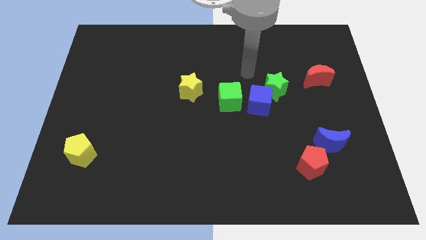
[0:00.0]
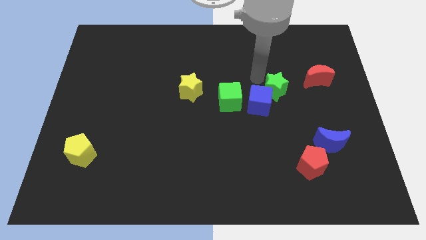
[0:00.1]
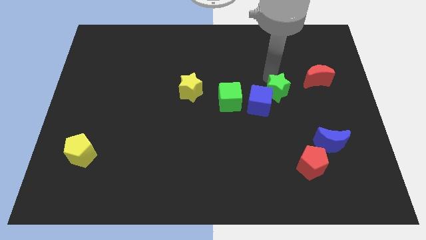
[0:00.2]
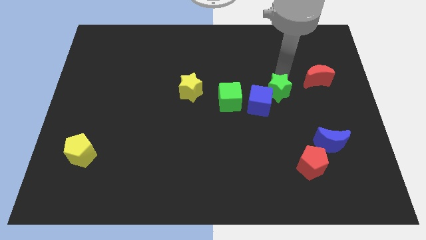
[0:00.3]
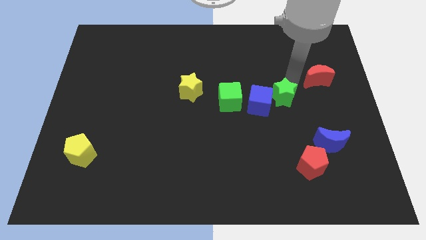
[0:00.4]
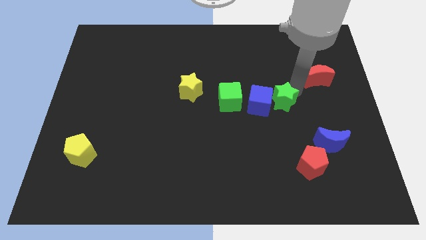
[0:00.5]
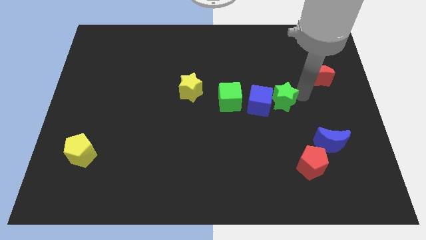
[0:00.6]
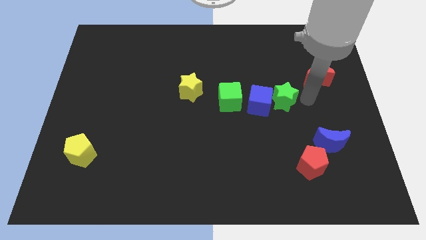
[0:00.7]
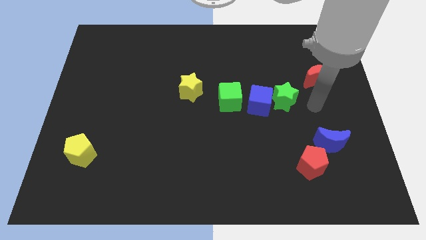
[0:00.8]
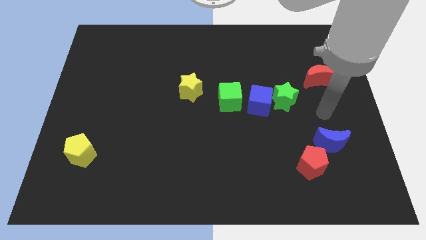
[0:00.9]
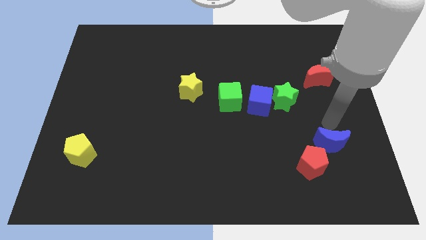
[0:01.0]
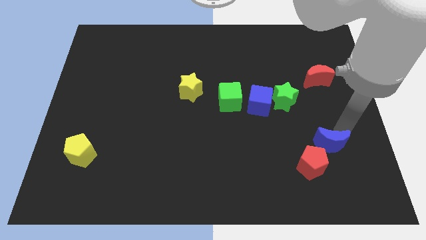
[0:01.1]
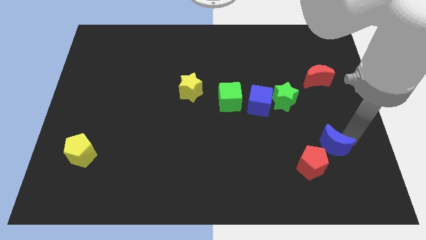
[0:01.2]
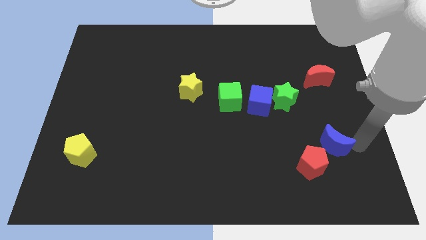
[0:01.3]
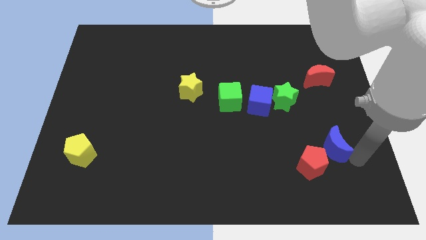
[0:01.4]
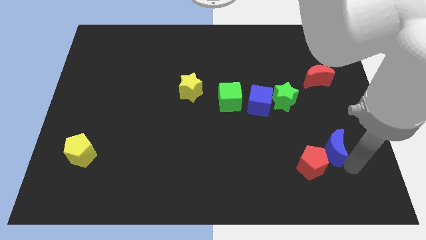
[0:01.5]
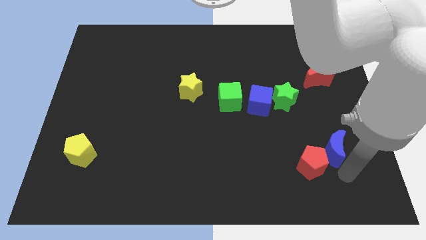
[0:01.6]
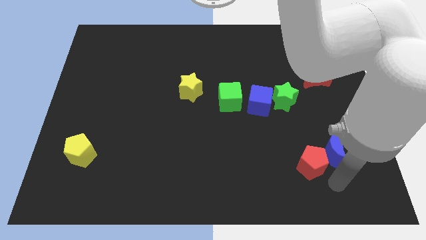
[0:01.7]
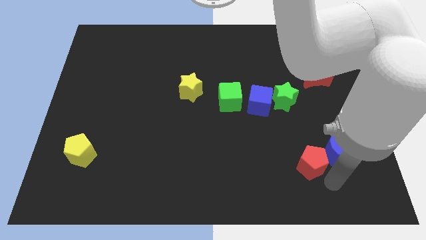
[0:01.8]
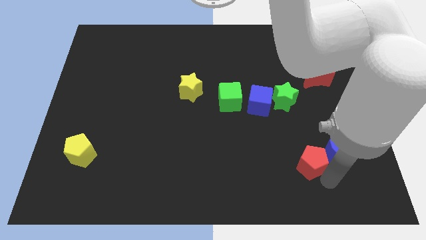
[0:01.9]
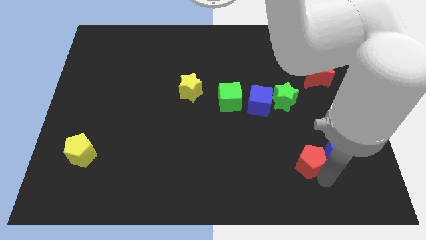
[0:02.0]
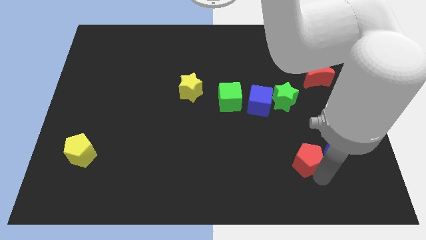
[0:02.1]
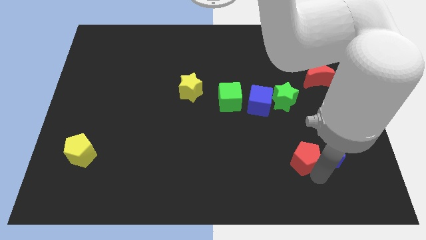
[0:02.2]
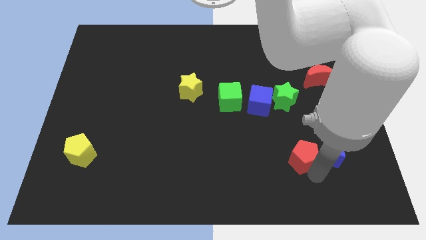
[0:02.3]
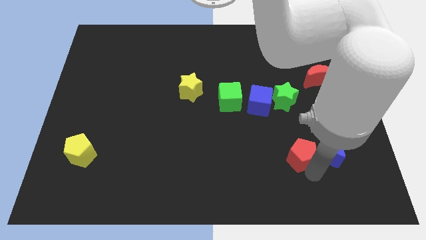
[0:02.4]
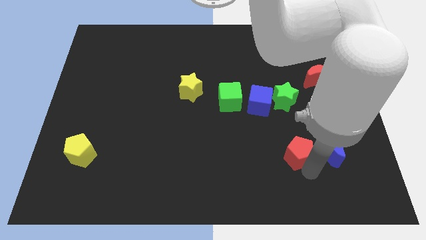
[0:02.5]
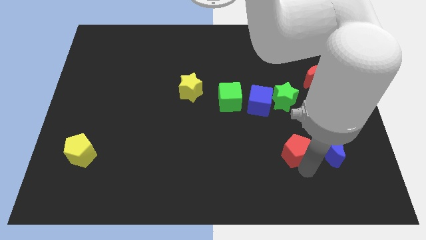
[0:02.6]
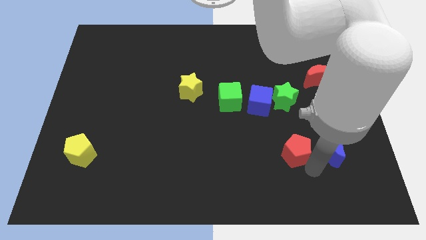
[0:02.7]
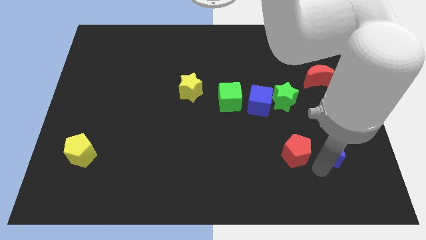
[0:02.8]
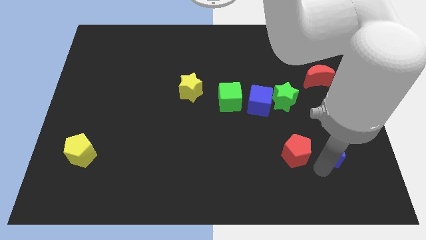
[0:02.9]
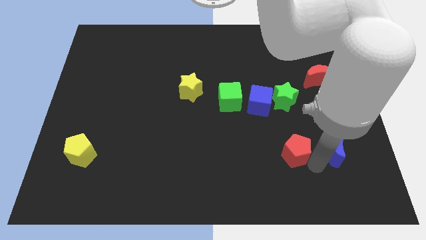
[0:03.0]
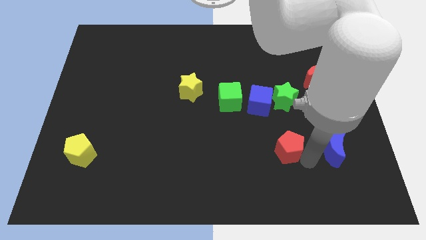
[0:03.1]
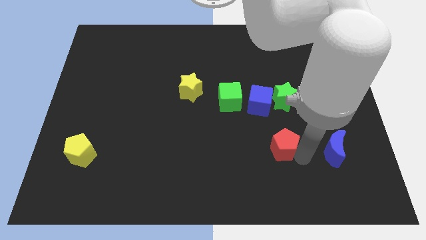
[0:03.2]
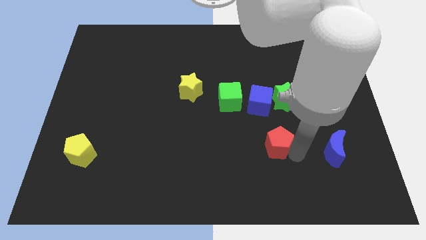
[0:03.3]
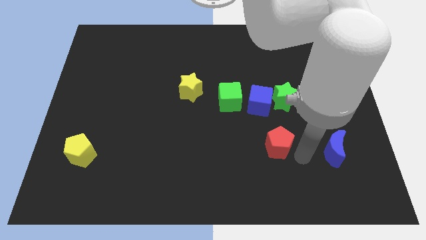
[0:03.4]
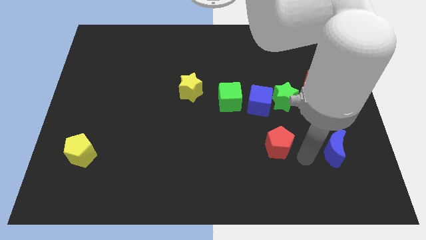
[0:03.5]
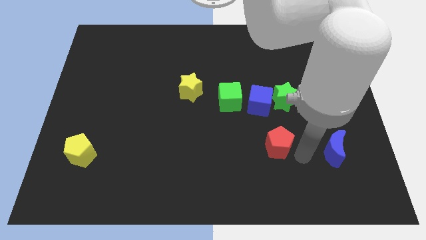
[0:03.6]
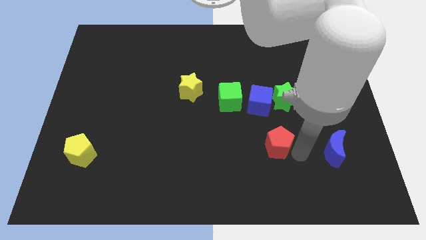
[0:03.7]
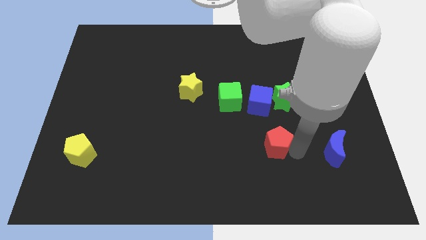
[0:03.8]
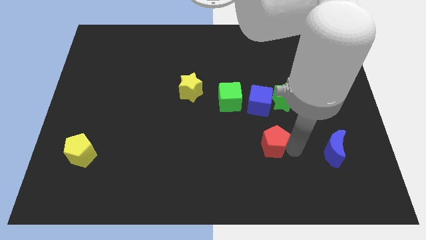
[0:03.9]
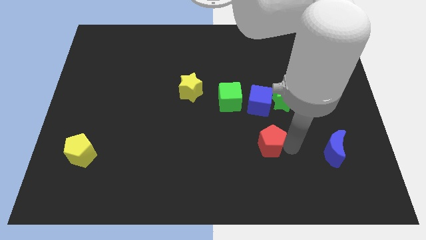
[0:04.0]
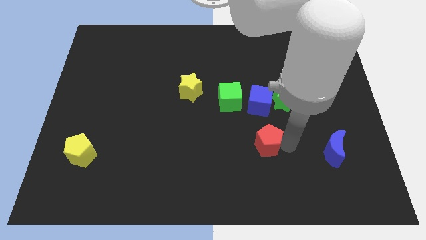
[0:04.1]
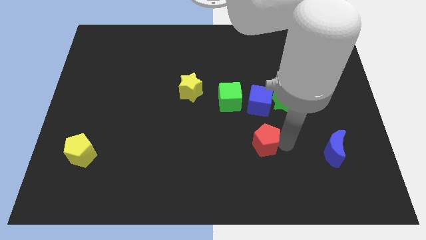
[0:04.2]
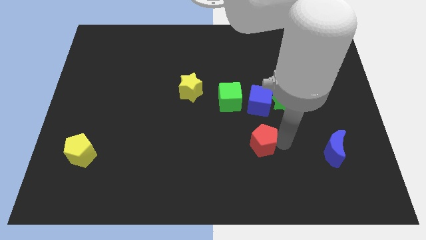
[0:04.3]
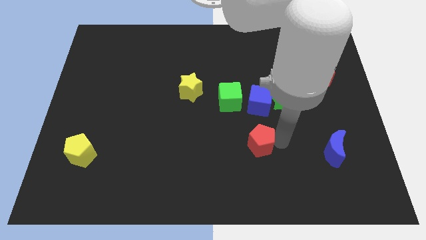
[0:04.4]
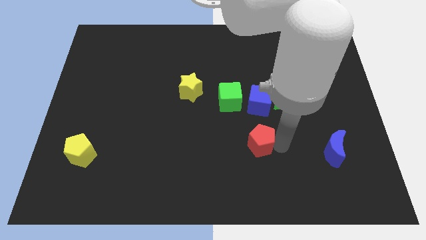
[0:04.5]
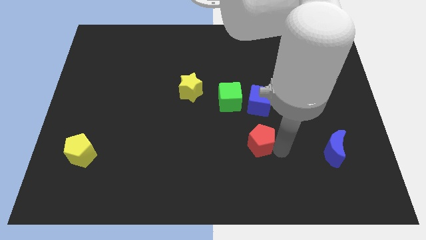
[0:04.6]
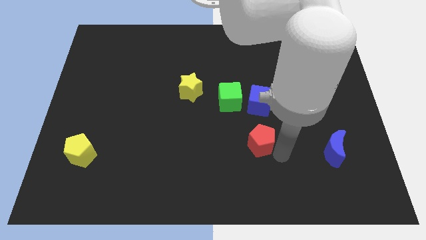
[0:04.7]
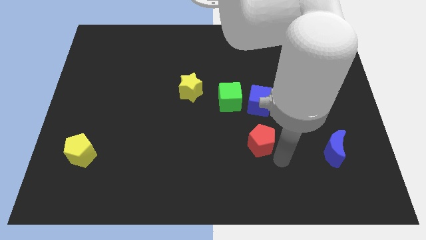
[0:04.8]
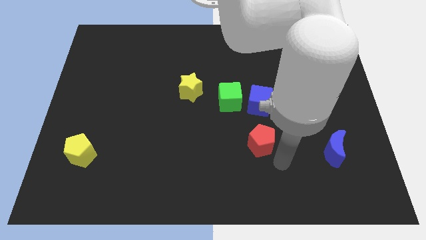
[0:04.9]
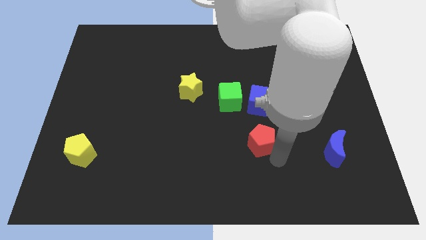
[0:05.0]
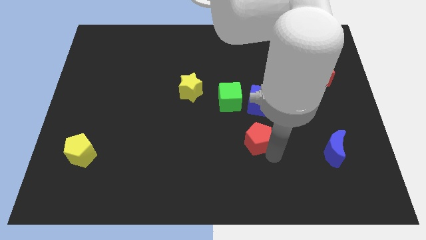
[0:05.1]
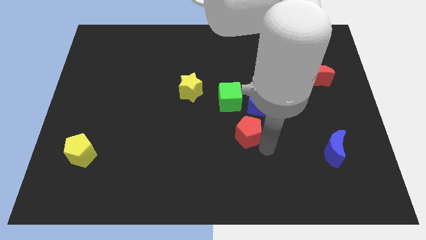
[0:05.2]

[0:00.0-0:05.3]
push the red pentagon to the middle of the board
